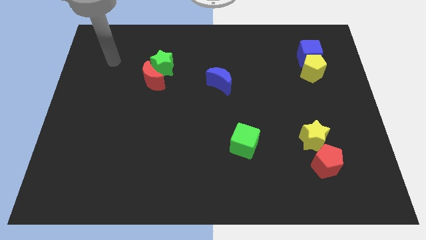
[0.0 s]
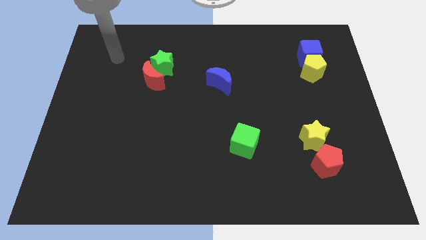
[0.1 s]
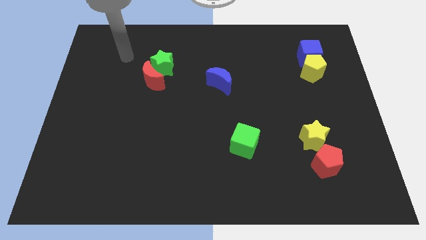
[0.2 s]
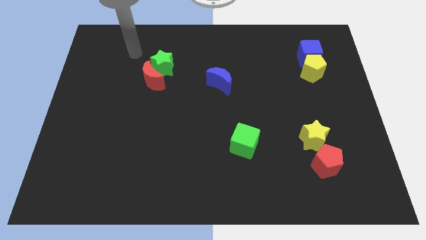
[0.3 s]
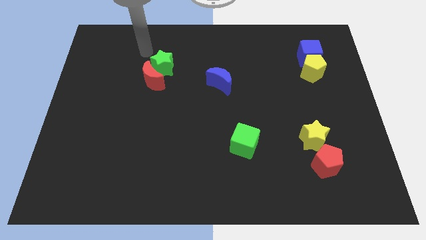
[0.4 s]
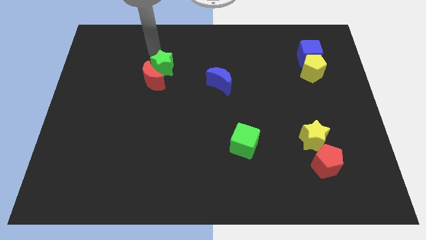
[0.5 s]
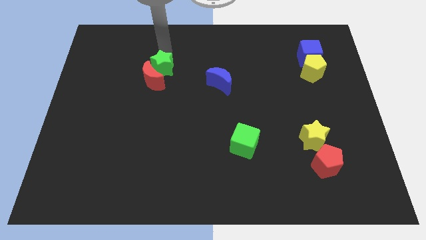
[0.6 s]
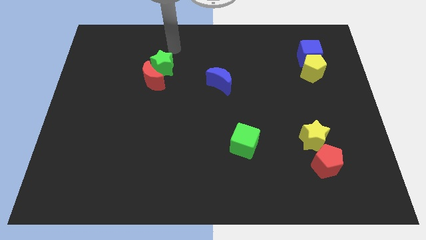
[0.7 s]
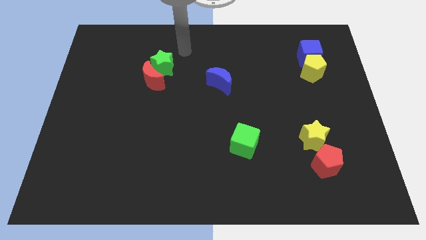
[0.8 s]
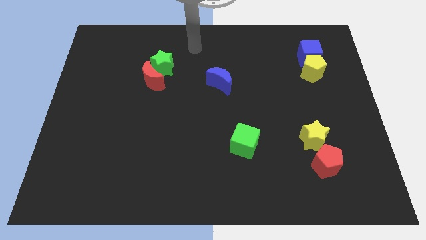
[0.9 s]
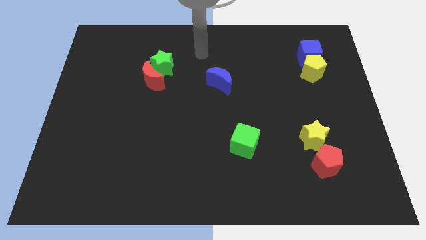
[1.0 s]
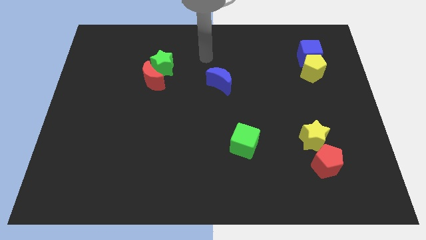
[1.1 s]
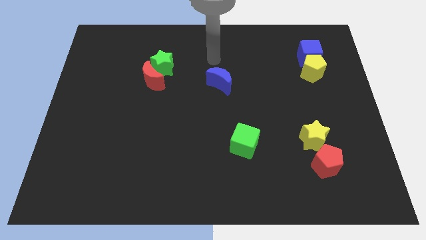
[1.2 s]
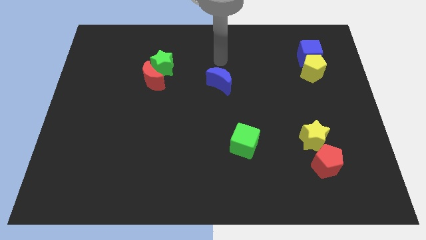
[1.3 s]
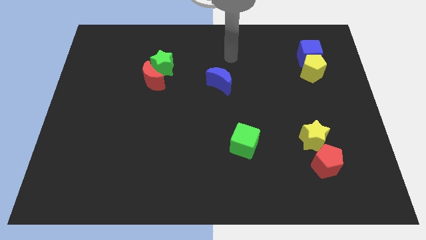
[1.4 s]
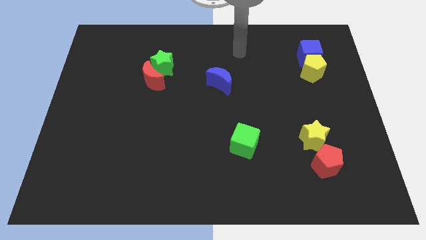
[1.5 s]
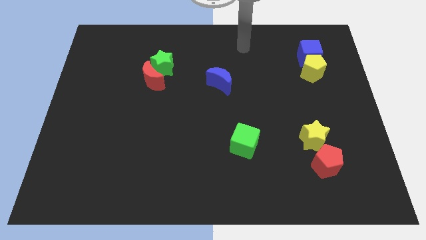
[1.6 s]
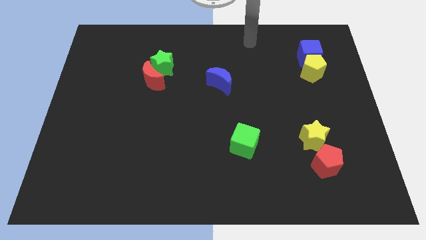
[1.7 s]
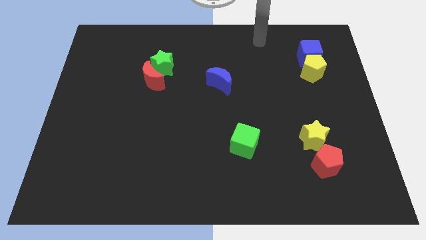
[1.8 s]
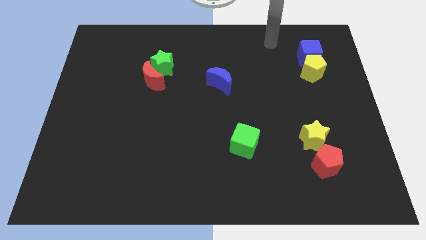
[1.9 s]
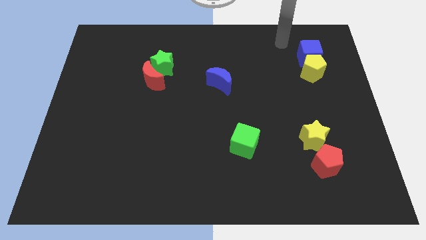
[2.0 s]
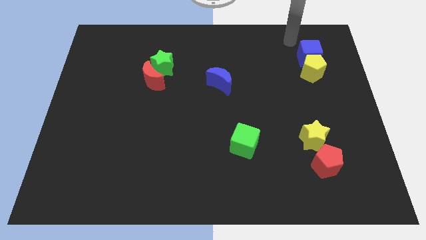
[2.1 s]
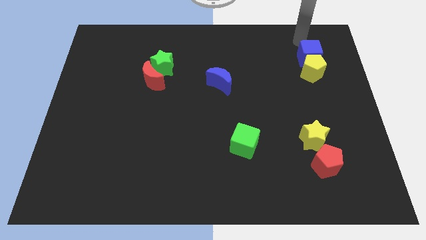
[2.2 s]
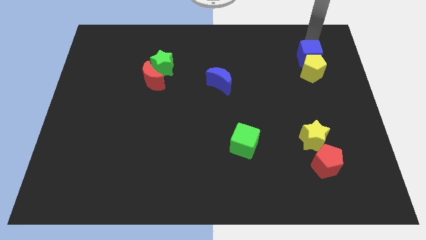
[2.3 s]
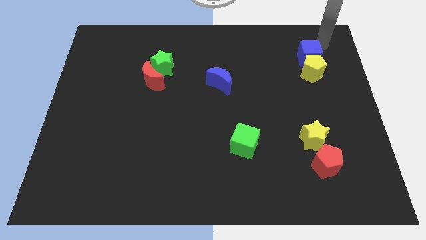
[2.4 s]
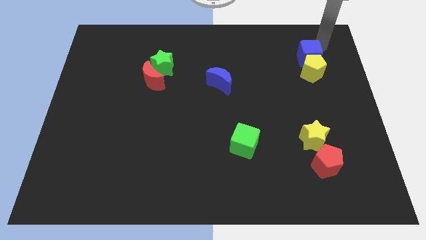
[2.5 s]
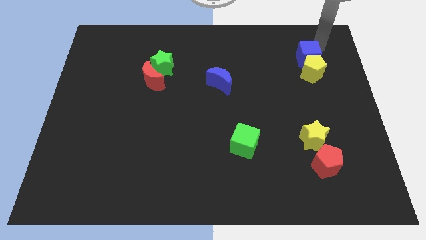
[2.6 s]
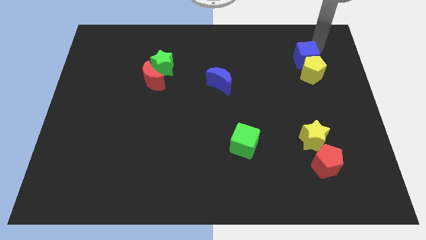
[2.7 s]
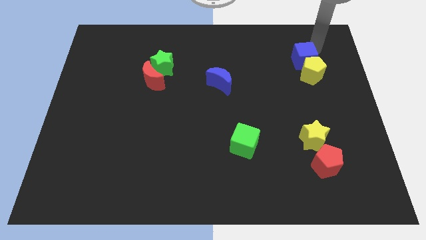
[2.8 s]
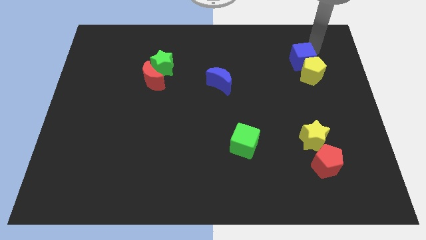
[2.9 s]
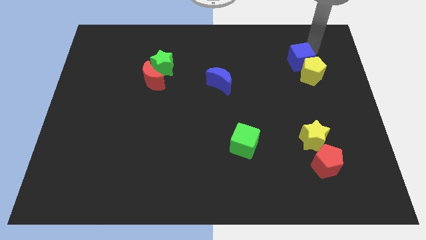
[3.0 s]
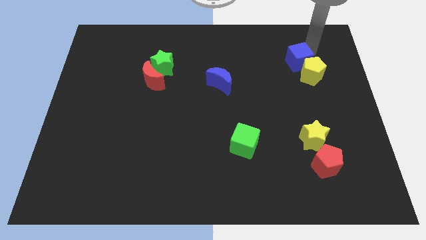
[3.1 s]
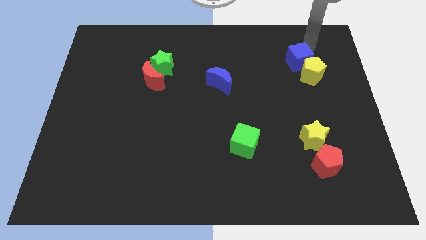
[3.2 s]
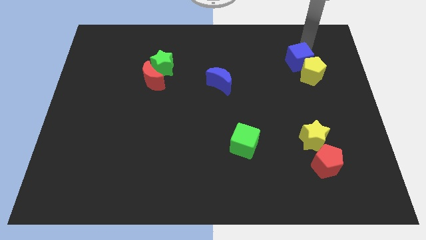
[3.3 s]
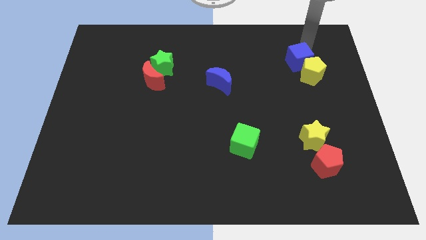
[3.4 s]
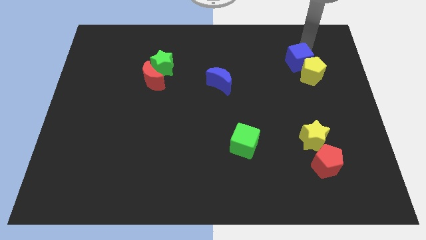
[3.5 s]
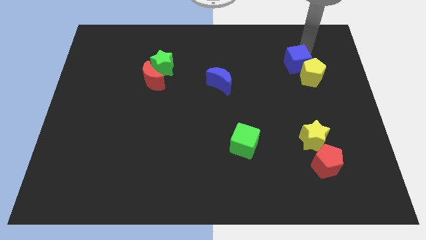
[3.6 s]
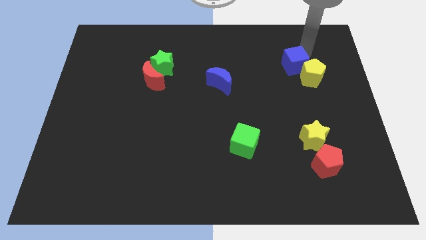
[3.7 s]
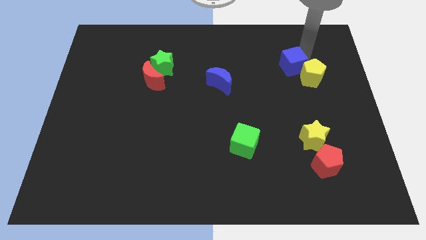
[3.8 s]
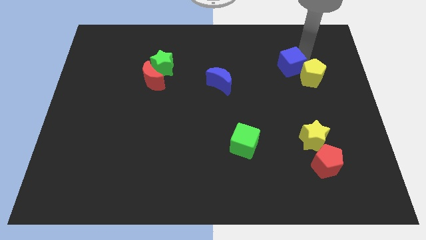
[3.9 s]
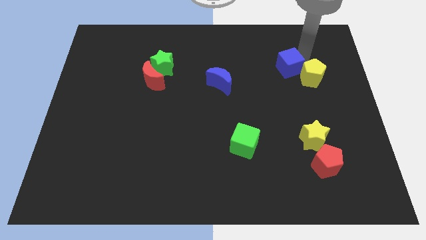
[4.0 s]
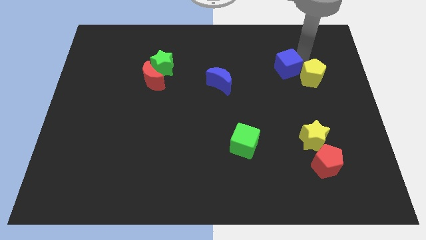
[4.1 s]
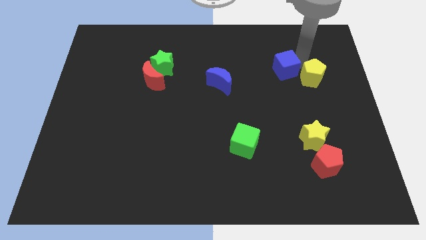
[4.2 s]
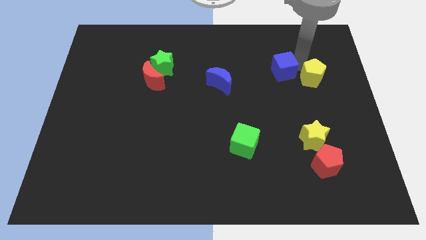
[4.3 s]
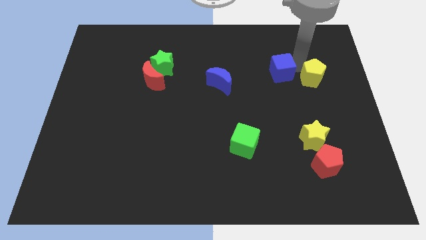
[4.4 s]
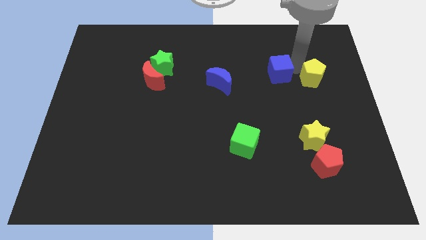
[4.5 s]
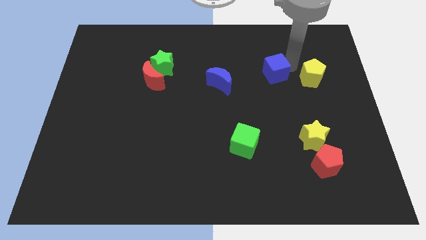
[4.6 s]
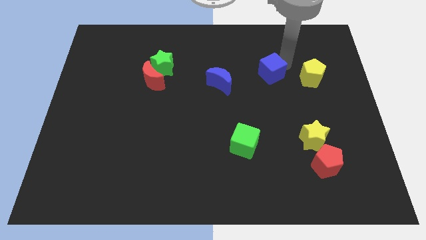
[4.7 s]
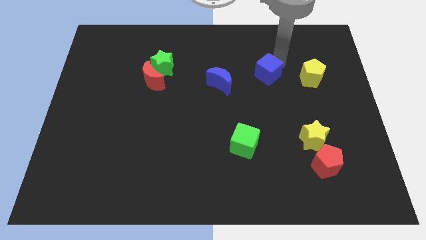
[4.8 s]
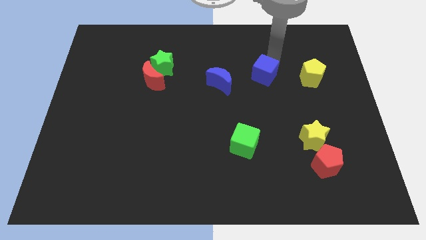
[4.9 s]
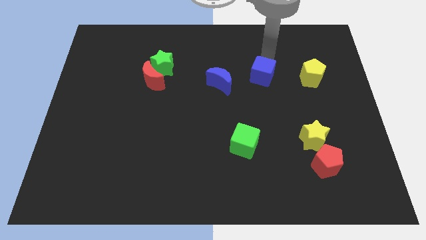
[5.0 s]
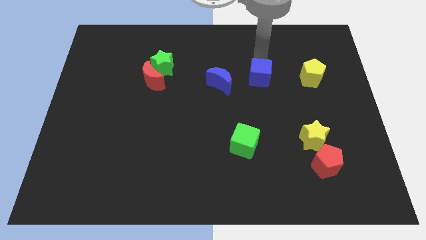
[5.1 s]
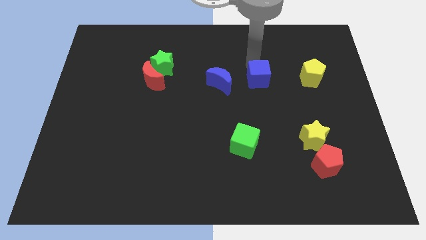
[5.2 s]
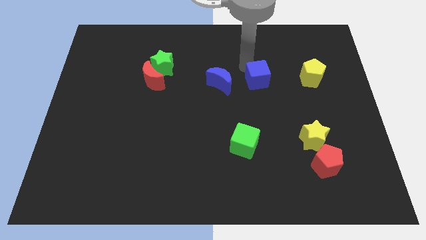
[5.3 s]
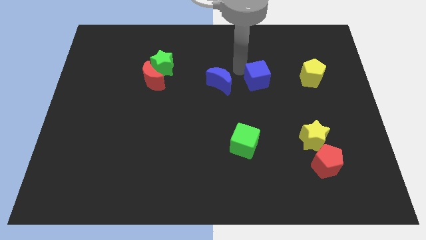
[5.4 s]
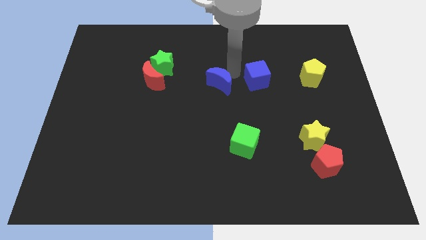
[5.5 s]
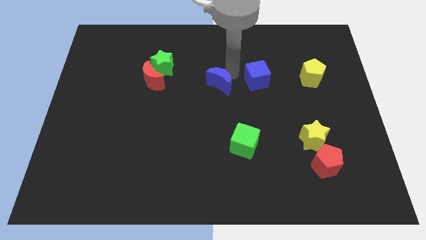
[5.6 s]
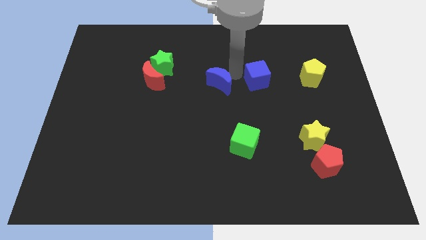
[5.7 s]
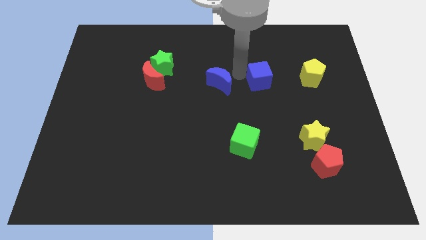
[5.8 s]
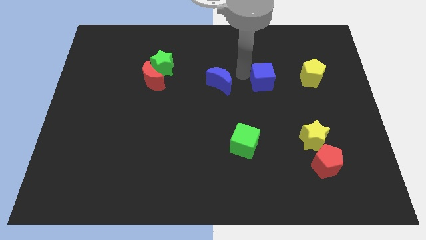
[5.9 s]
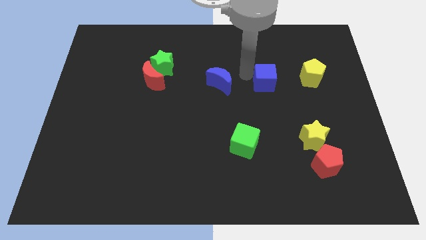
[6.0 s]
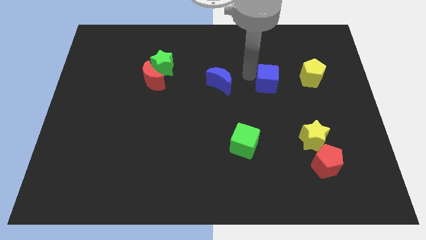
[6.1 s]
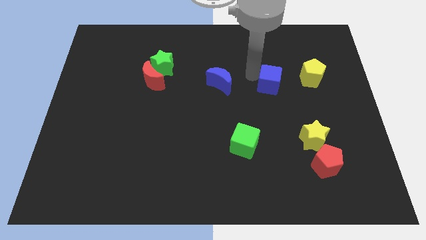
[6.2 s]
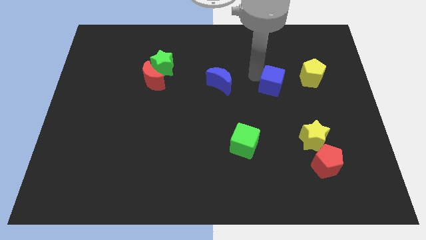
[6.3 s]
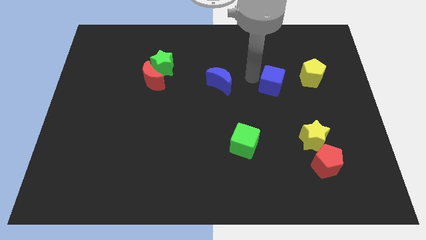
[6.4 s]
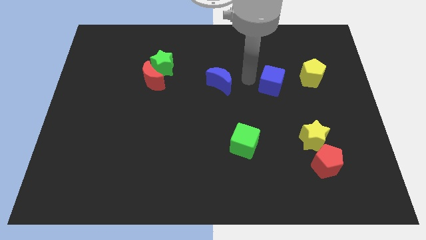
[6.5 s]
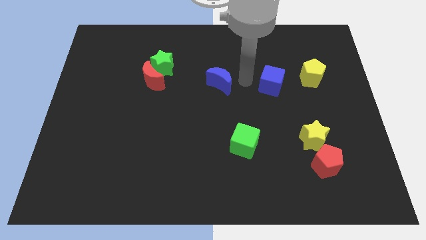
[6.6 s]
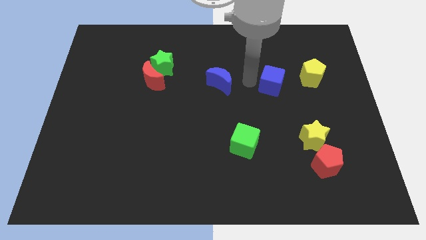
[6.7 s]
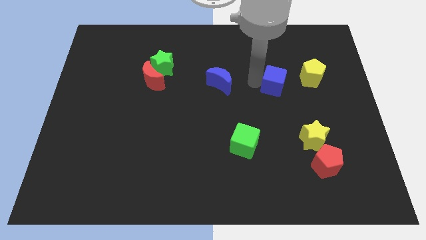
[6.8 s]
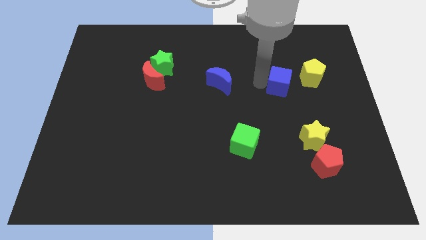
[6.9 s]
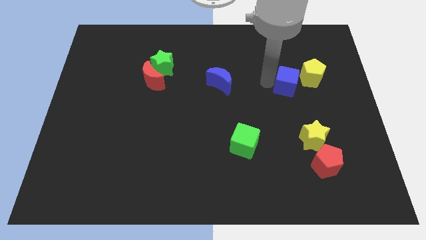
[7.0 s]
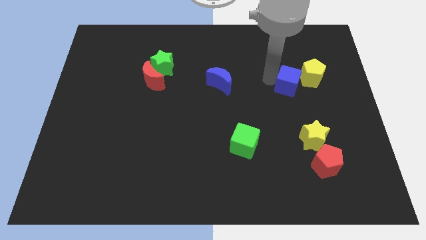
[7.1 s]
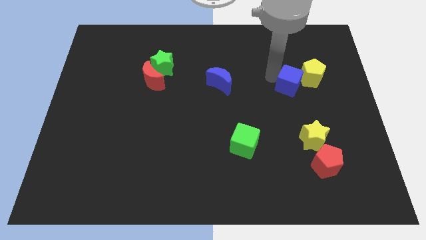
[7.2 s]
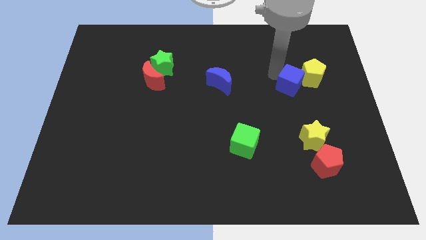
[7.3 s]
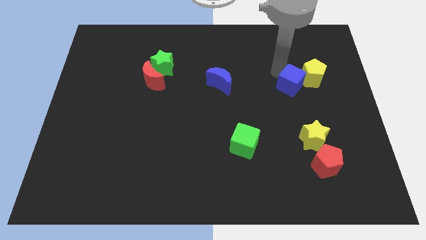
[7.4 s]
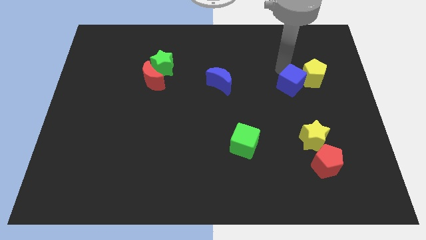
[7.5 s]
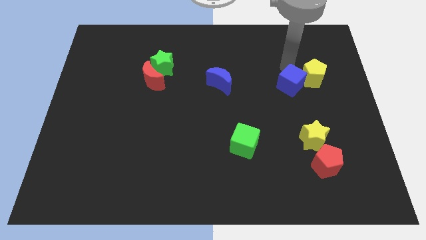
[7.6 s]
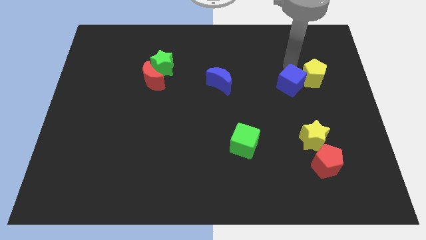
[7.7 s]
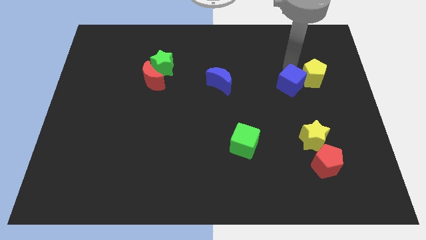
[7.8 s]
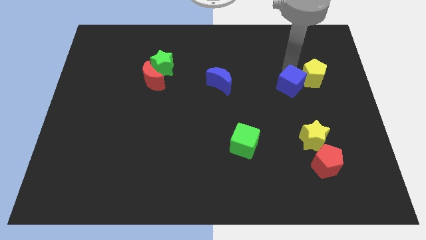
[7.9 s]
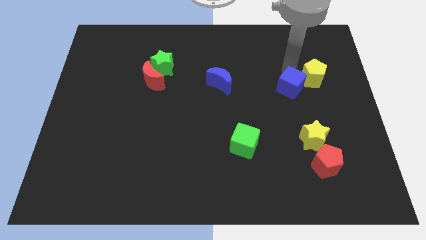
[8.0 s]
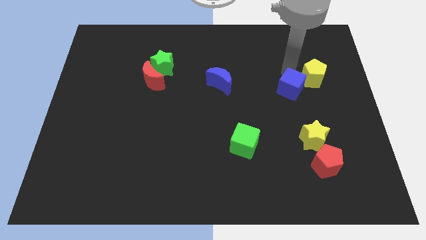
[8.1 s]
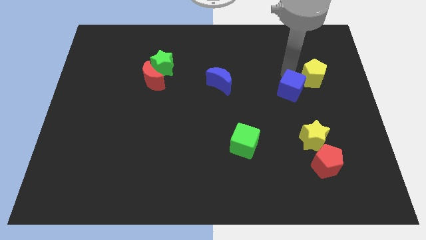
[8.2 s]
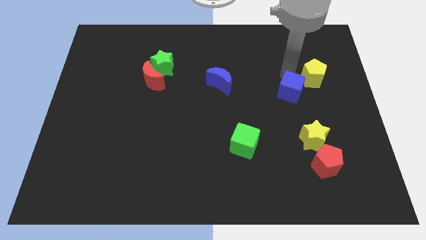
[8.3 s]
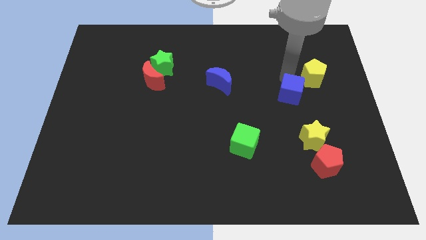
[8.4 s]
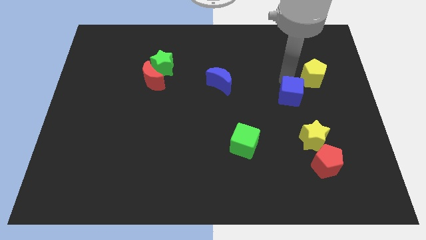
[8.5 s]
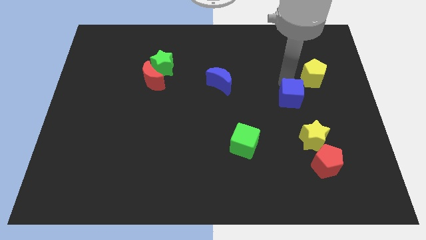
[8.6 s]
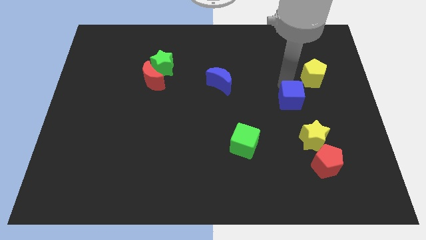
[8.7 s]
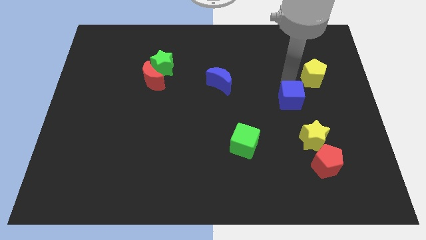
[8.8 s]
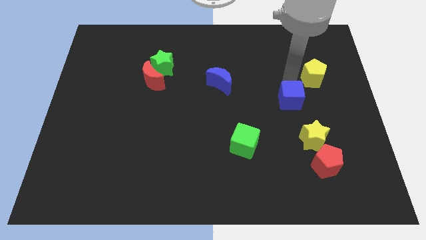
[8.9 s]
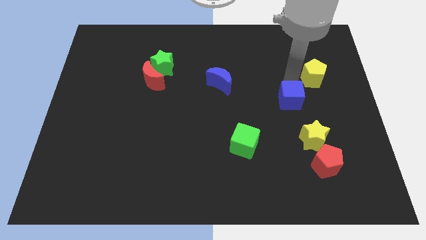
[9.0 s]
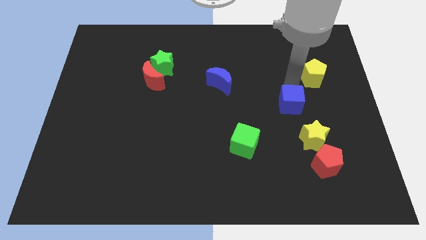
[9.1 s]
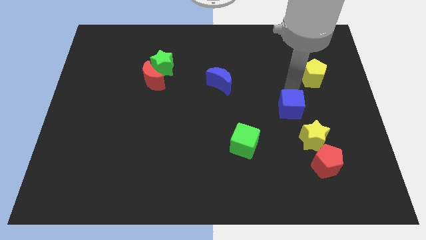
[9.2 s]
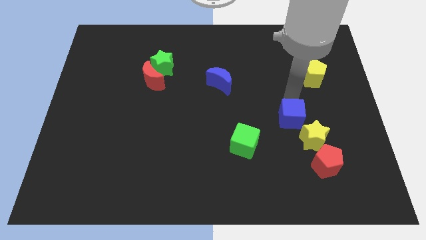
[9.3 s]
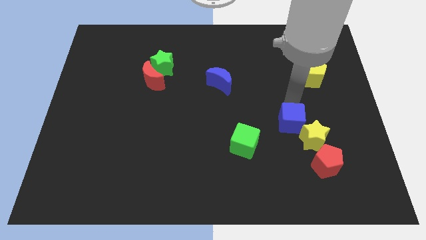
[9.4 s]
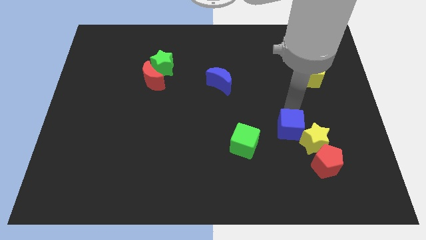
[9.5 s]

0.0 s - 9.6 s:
move the blue cube to the right of the green cube
